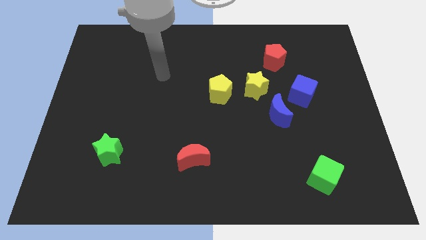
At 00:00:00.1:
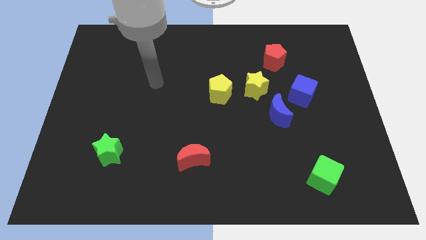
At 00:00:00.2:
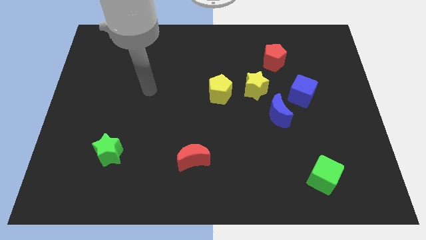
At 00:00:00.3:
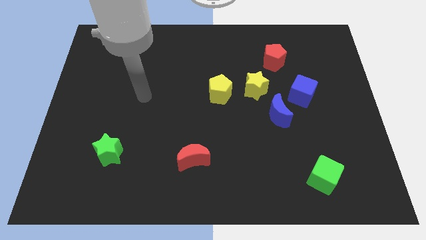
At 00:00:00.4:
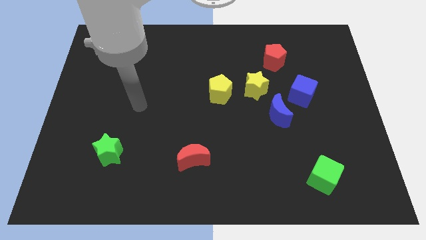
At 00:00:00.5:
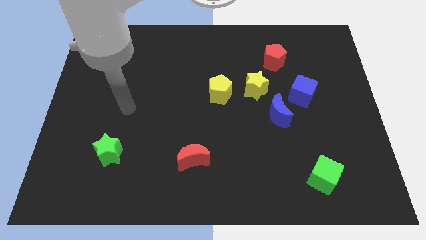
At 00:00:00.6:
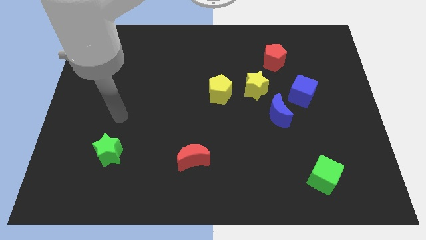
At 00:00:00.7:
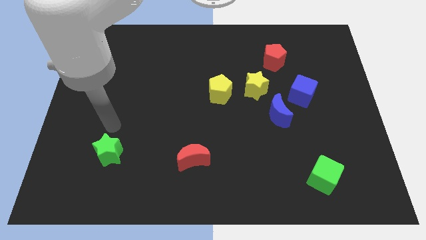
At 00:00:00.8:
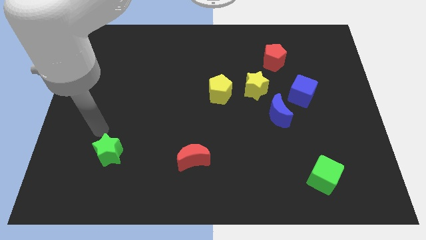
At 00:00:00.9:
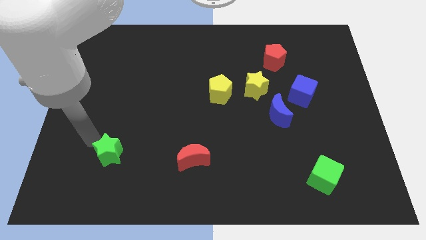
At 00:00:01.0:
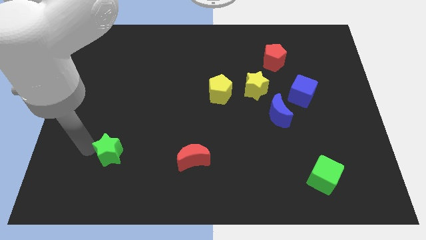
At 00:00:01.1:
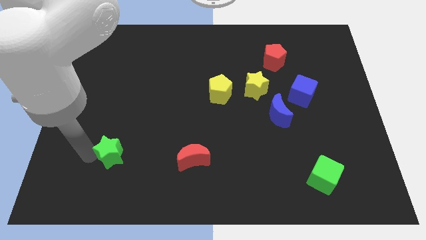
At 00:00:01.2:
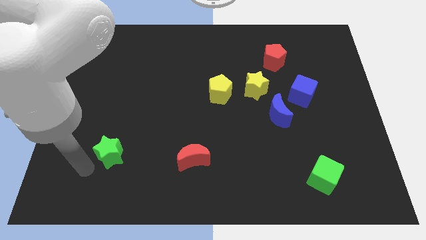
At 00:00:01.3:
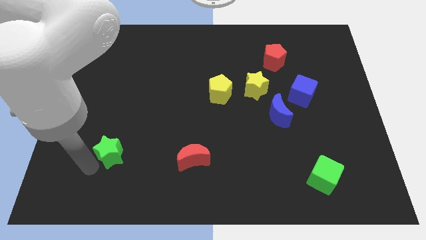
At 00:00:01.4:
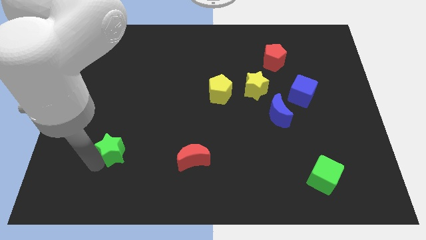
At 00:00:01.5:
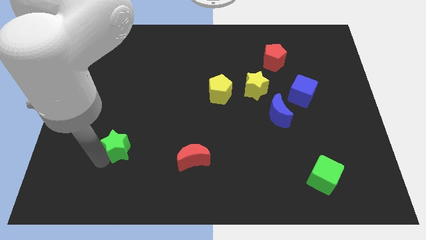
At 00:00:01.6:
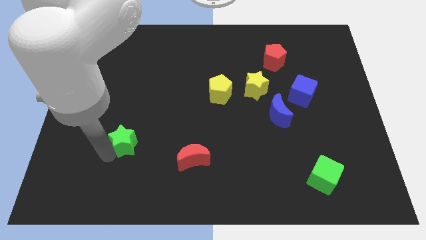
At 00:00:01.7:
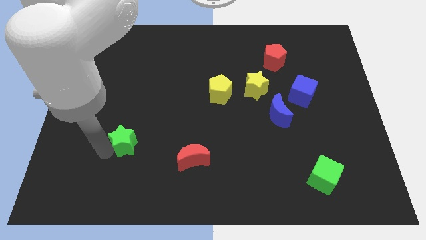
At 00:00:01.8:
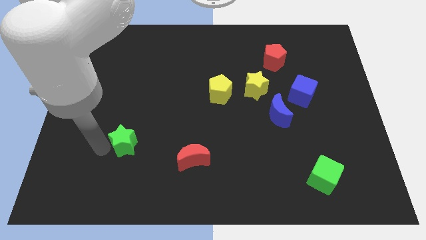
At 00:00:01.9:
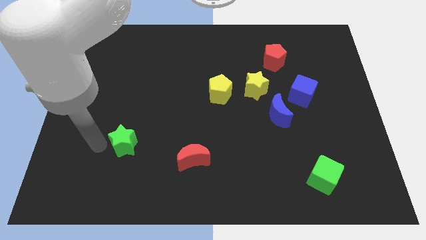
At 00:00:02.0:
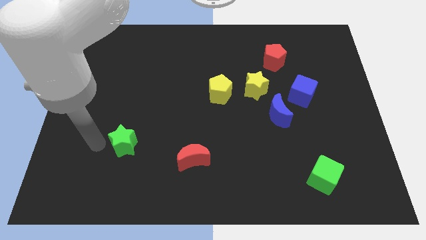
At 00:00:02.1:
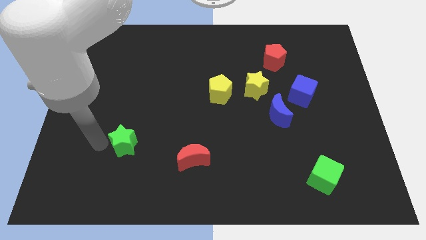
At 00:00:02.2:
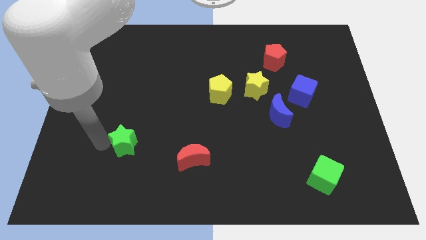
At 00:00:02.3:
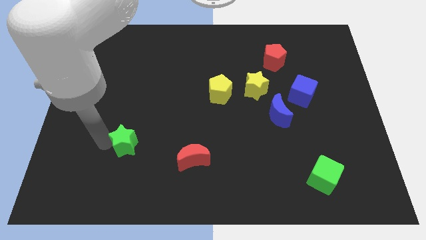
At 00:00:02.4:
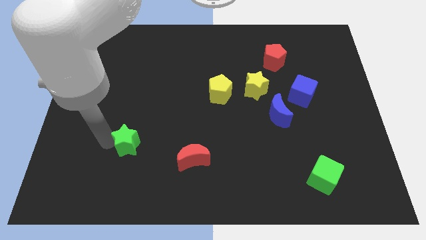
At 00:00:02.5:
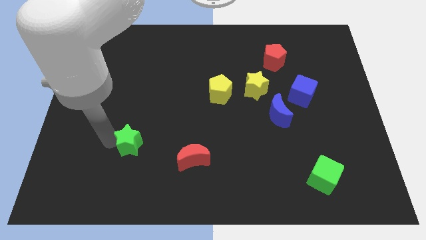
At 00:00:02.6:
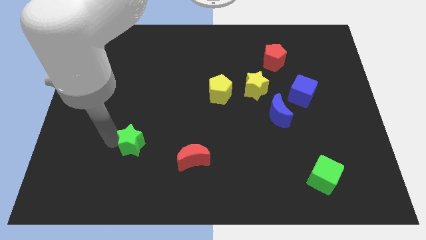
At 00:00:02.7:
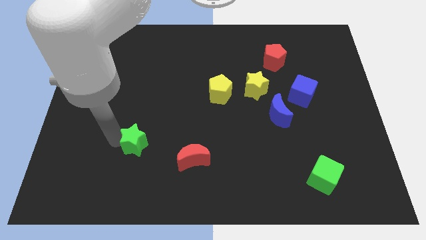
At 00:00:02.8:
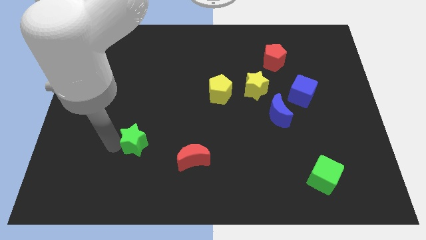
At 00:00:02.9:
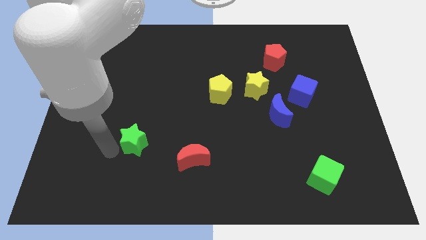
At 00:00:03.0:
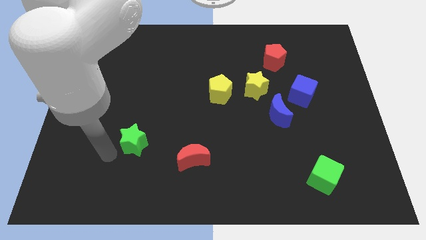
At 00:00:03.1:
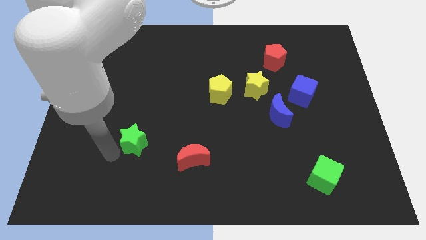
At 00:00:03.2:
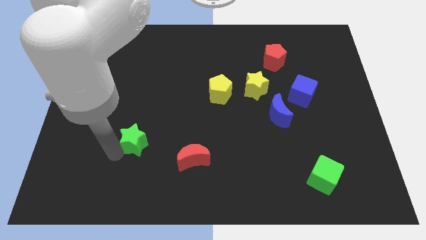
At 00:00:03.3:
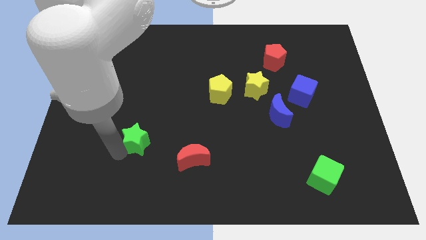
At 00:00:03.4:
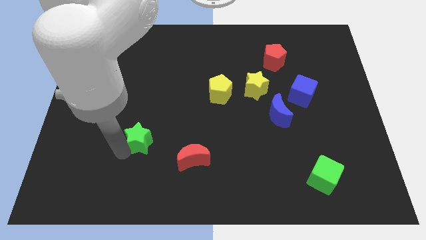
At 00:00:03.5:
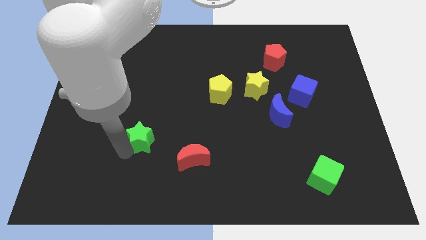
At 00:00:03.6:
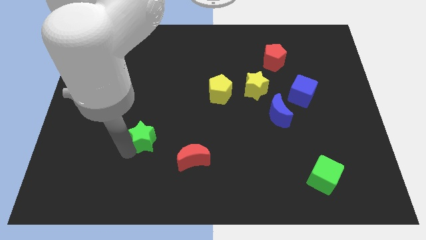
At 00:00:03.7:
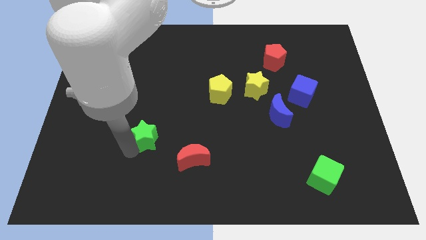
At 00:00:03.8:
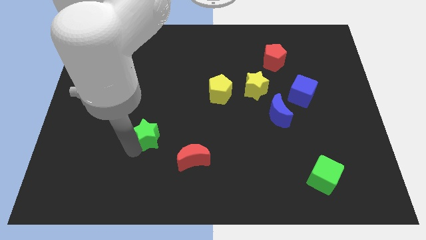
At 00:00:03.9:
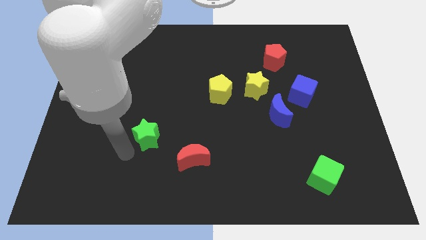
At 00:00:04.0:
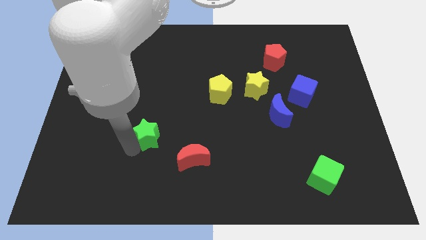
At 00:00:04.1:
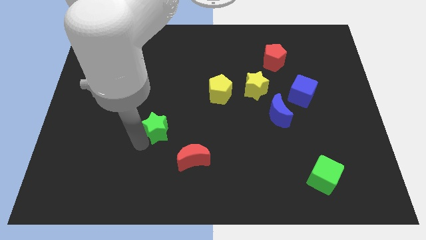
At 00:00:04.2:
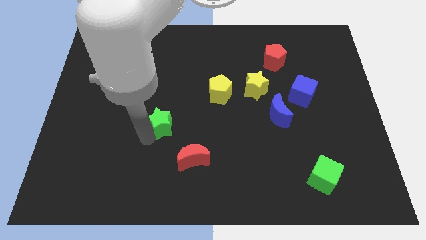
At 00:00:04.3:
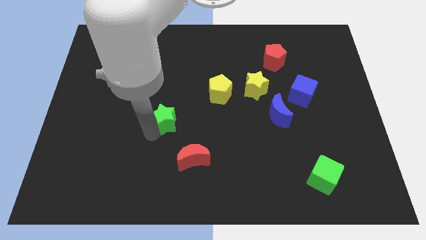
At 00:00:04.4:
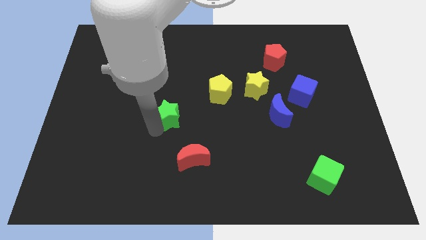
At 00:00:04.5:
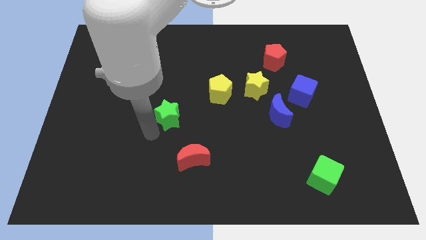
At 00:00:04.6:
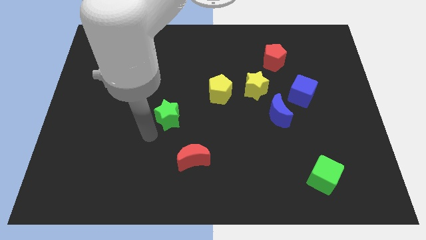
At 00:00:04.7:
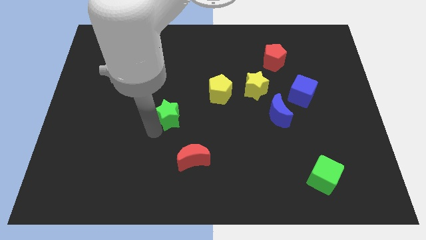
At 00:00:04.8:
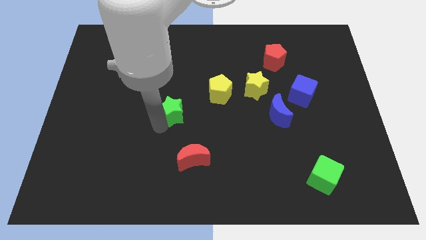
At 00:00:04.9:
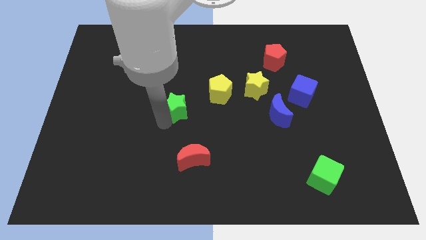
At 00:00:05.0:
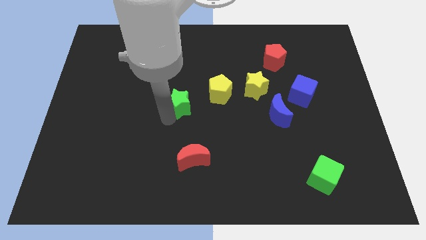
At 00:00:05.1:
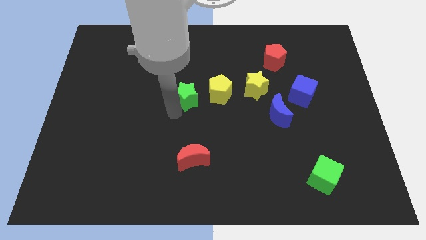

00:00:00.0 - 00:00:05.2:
slide the green star upwards and to the right diagonally

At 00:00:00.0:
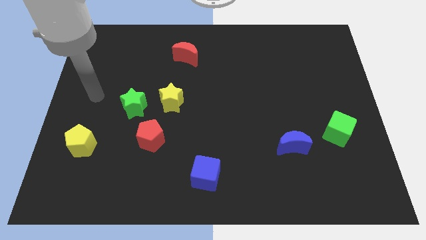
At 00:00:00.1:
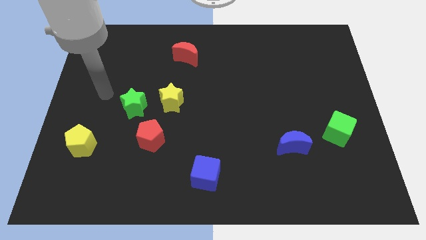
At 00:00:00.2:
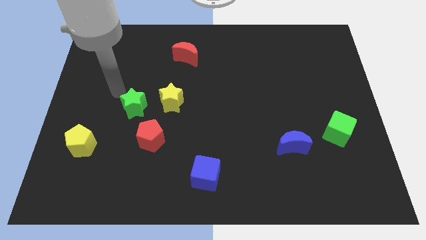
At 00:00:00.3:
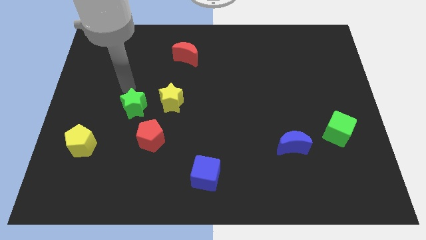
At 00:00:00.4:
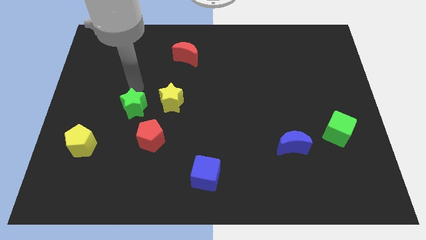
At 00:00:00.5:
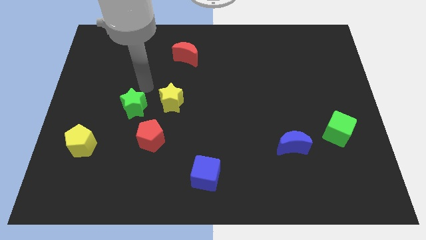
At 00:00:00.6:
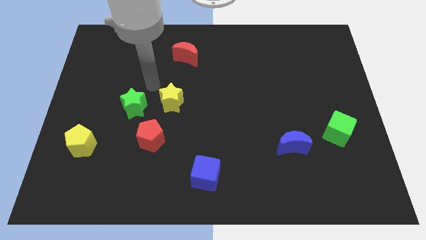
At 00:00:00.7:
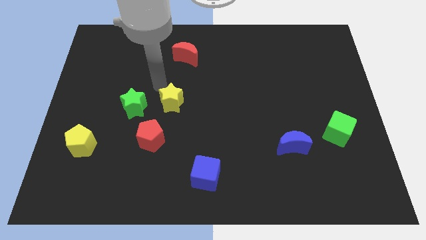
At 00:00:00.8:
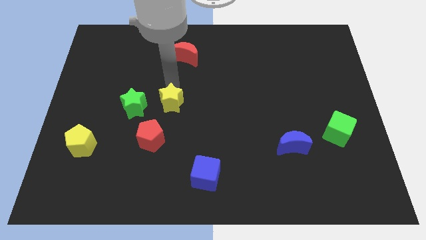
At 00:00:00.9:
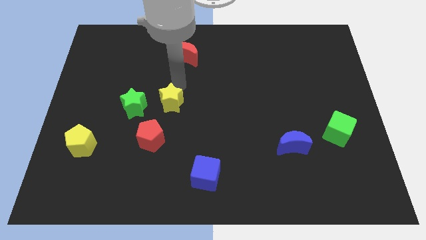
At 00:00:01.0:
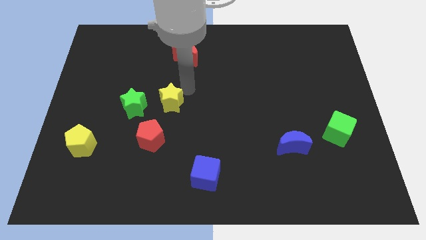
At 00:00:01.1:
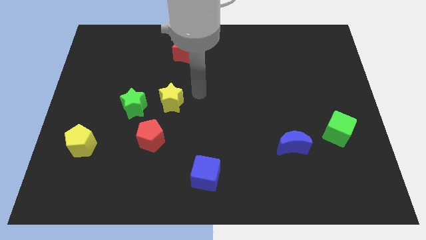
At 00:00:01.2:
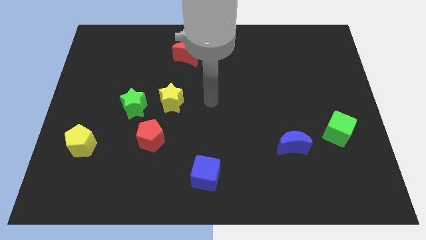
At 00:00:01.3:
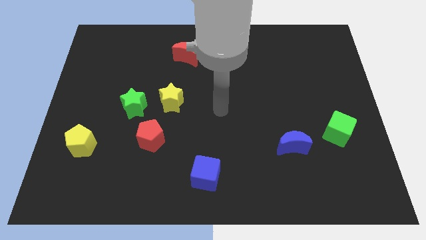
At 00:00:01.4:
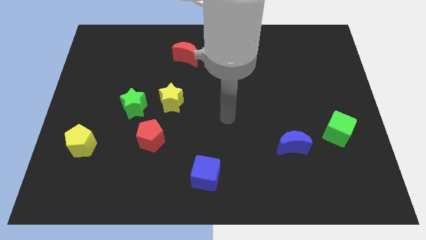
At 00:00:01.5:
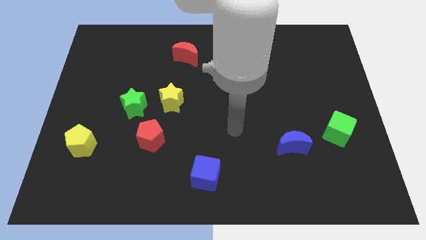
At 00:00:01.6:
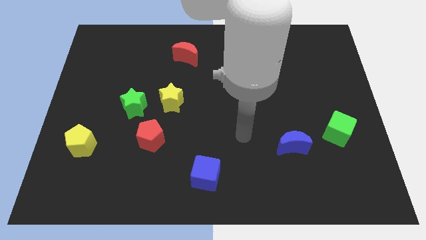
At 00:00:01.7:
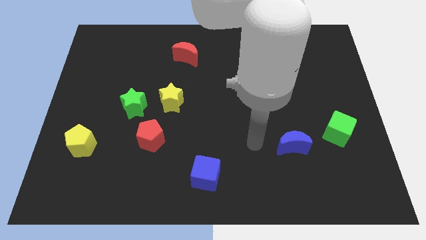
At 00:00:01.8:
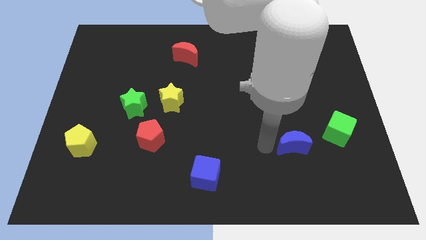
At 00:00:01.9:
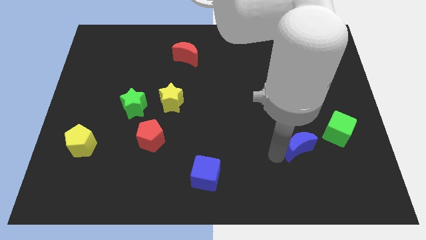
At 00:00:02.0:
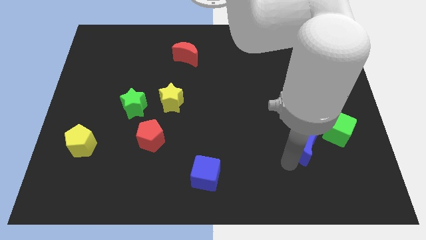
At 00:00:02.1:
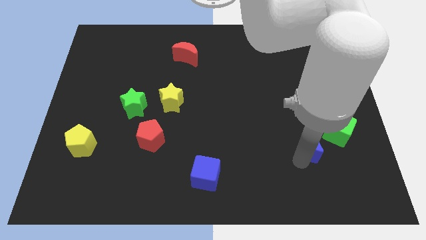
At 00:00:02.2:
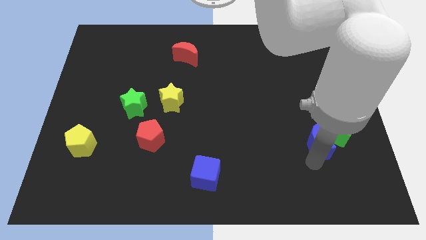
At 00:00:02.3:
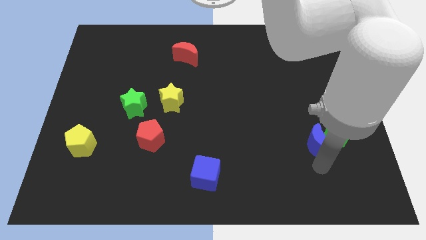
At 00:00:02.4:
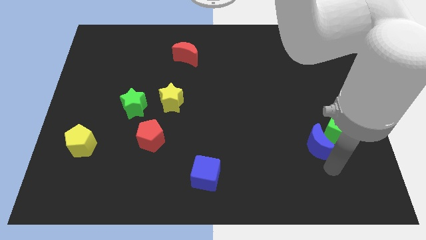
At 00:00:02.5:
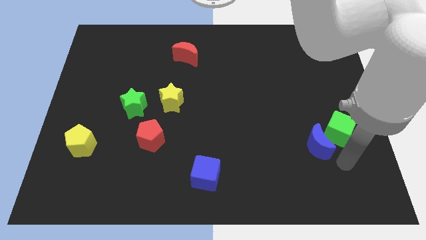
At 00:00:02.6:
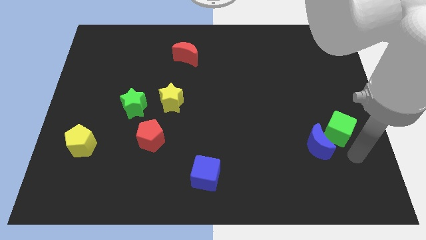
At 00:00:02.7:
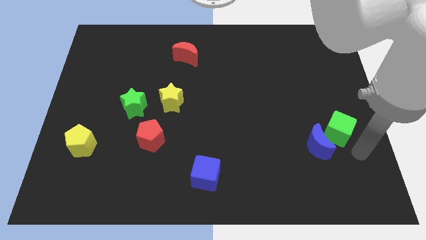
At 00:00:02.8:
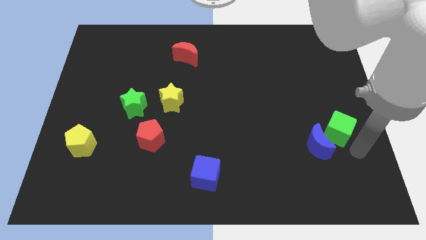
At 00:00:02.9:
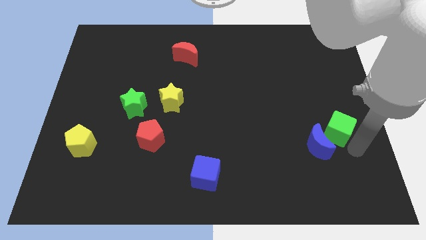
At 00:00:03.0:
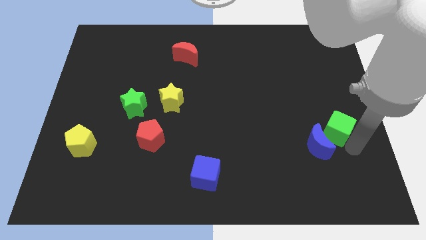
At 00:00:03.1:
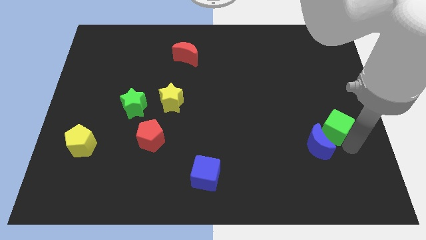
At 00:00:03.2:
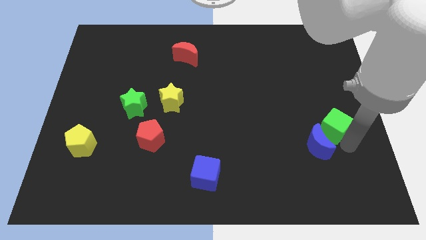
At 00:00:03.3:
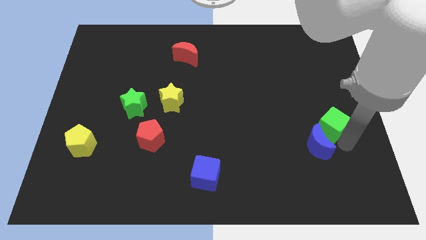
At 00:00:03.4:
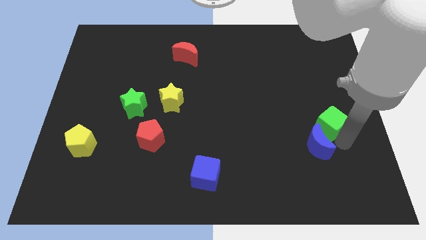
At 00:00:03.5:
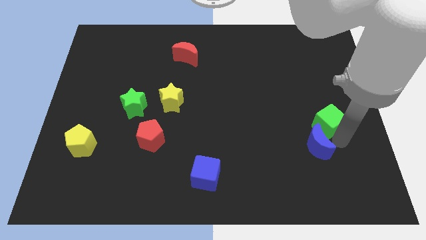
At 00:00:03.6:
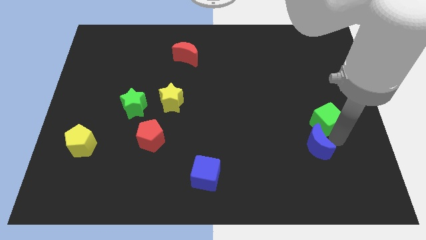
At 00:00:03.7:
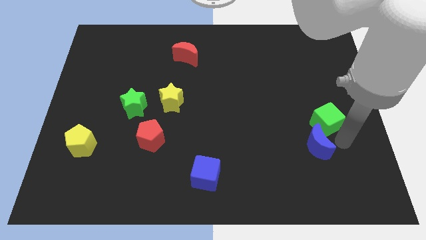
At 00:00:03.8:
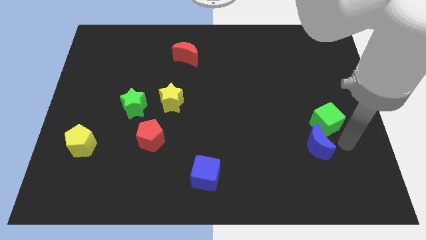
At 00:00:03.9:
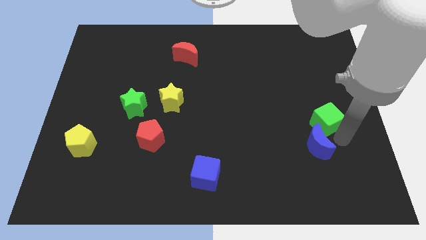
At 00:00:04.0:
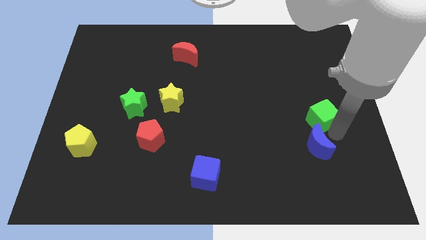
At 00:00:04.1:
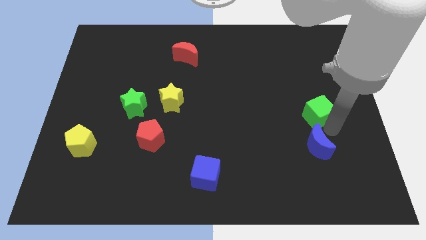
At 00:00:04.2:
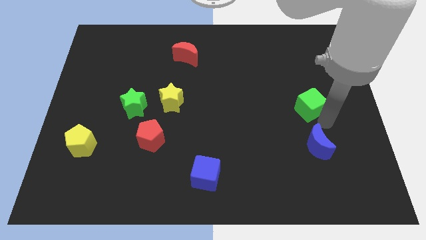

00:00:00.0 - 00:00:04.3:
push the green cube upwards and to the left diagonally slightly
